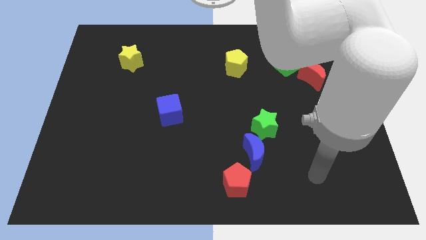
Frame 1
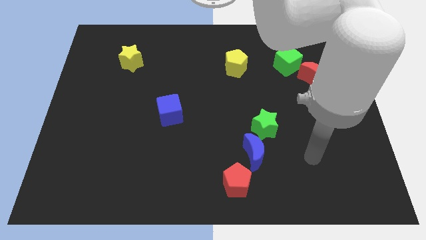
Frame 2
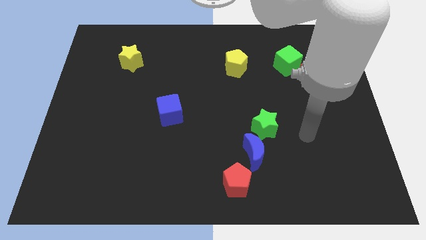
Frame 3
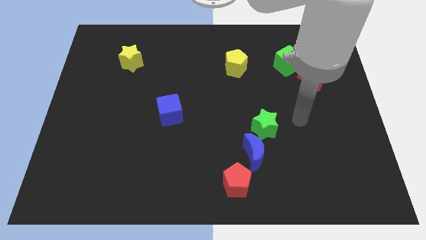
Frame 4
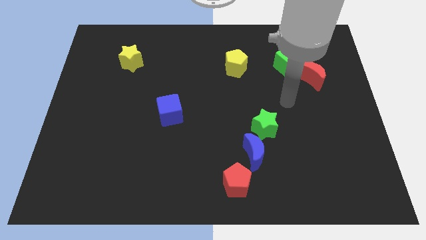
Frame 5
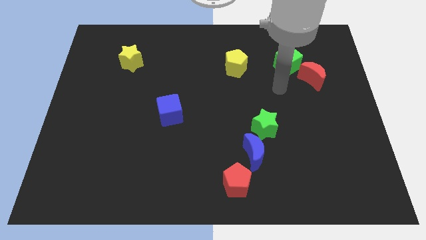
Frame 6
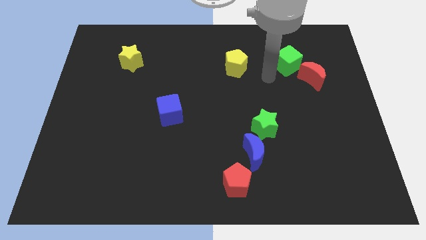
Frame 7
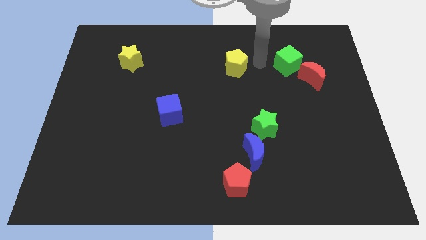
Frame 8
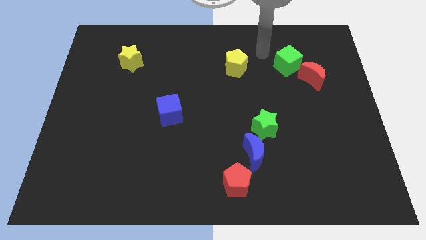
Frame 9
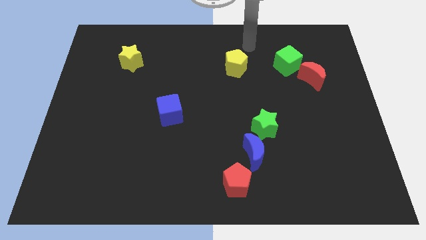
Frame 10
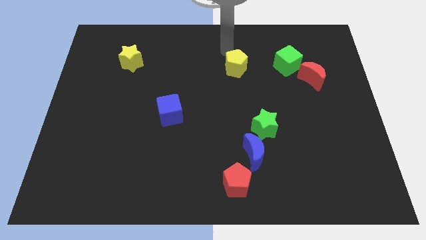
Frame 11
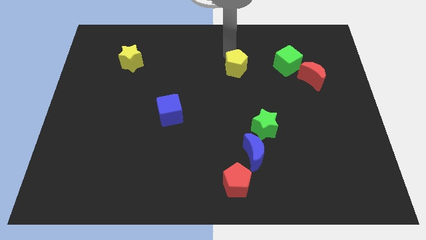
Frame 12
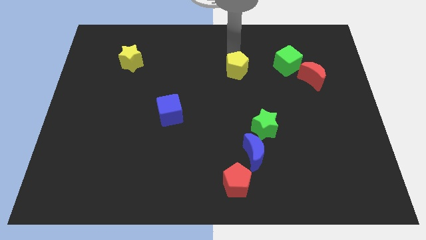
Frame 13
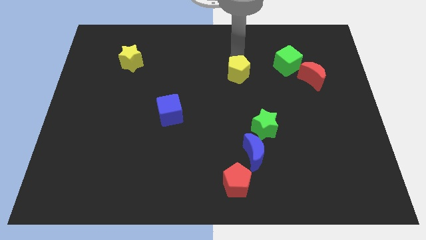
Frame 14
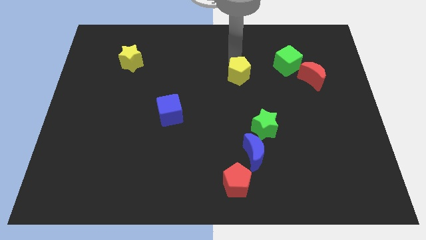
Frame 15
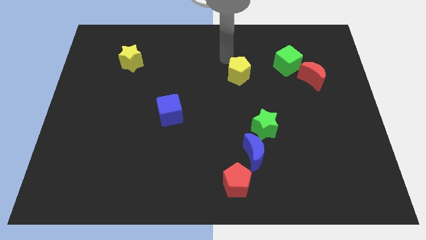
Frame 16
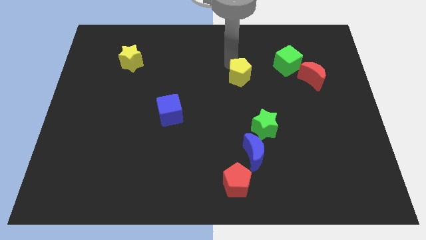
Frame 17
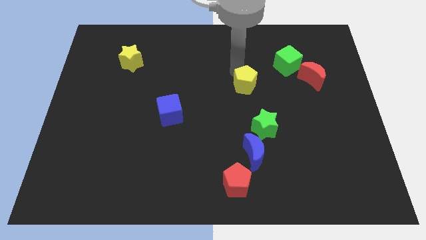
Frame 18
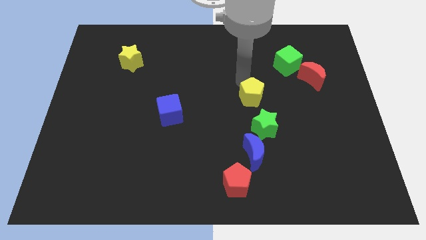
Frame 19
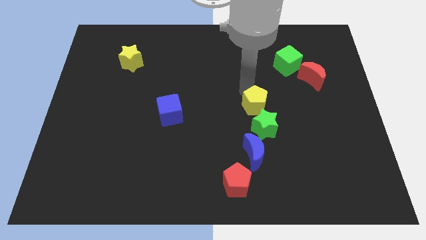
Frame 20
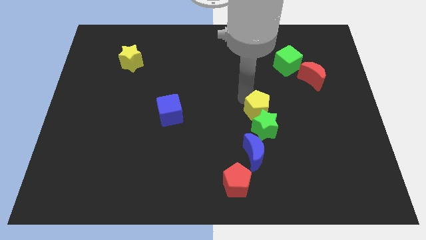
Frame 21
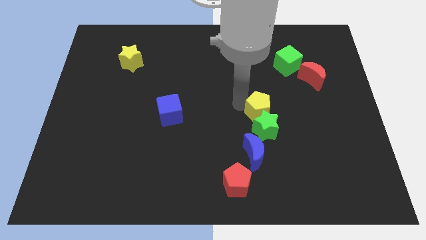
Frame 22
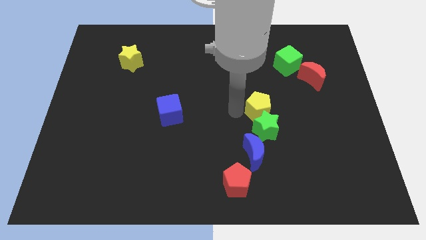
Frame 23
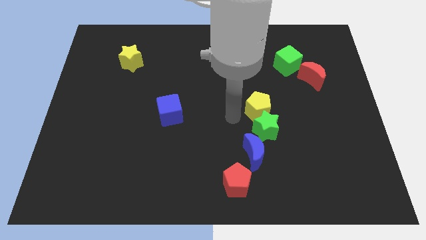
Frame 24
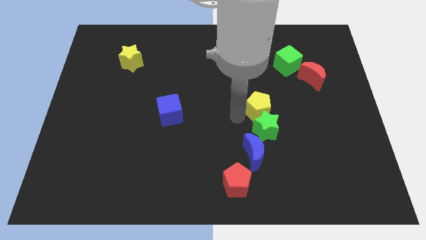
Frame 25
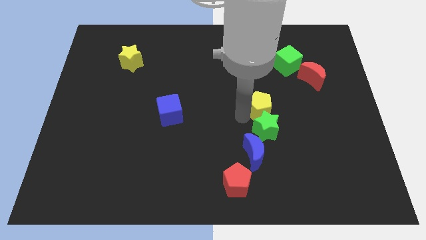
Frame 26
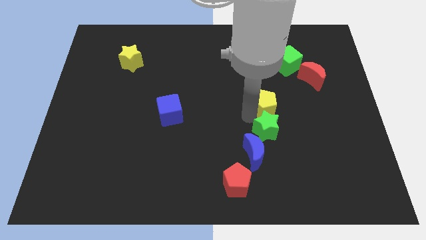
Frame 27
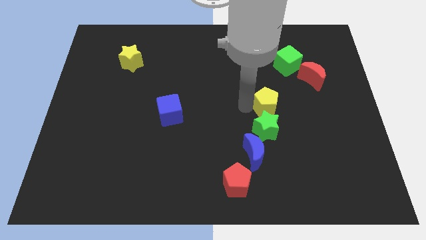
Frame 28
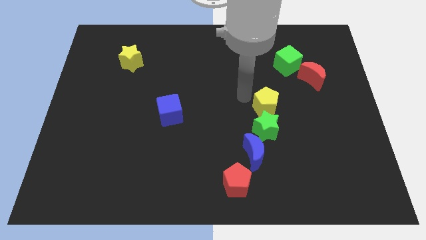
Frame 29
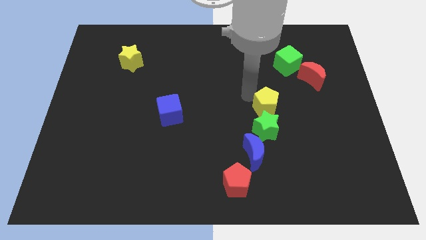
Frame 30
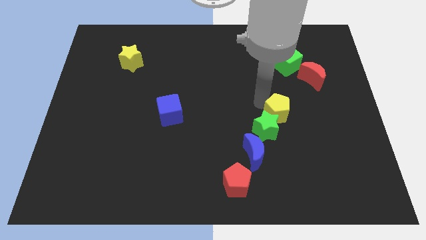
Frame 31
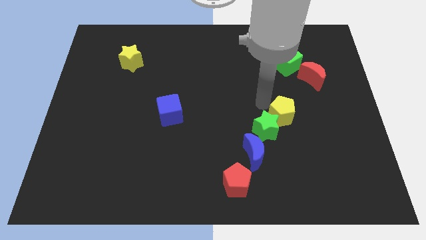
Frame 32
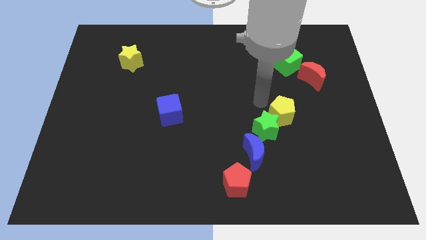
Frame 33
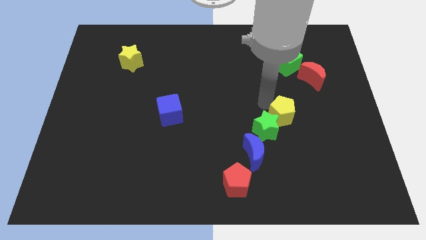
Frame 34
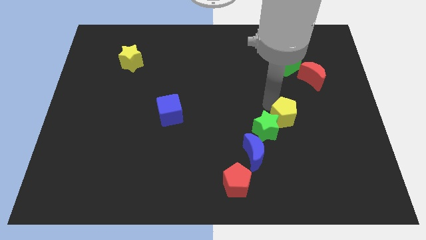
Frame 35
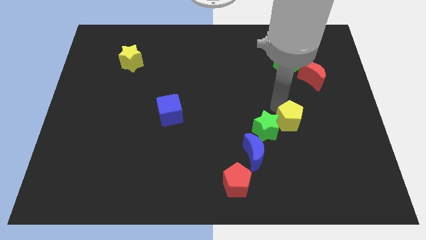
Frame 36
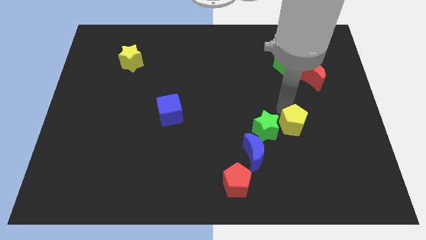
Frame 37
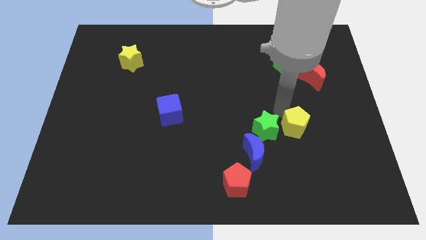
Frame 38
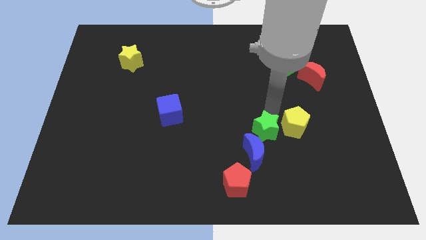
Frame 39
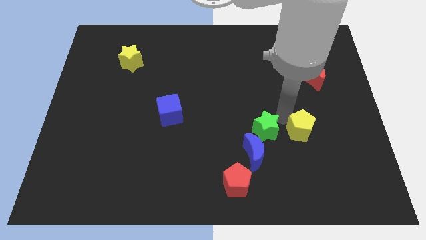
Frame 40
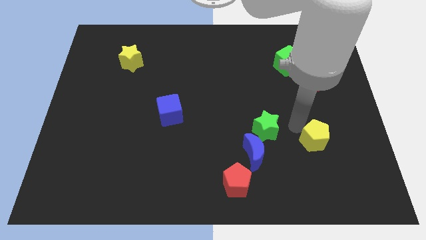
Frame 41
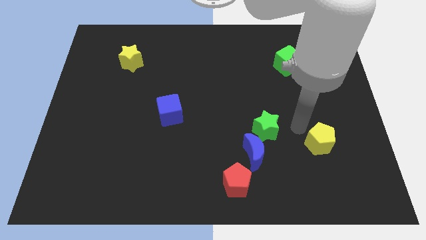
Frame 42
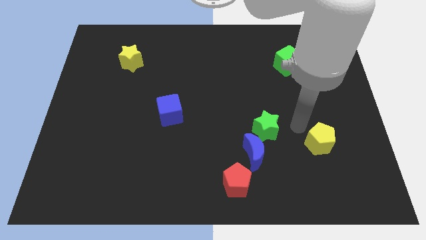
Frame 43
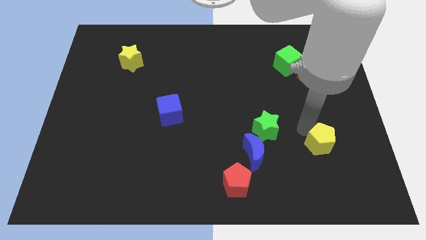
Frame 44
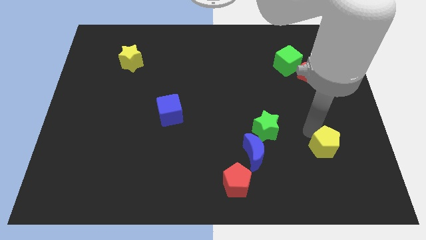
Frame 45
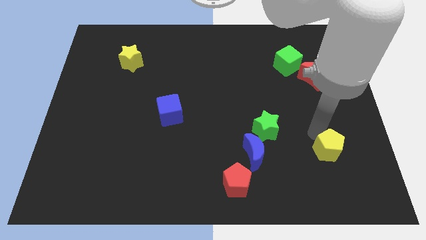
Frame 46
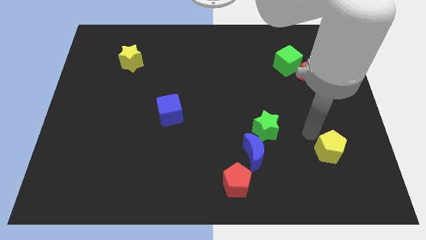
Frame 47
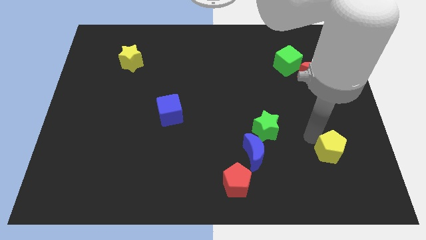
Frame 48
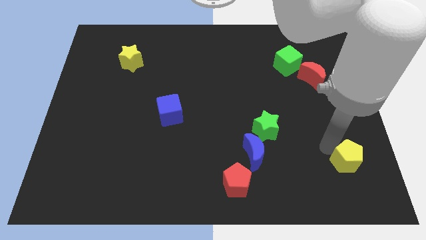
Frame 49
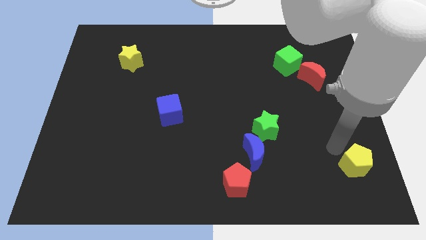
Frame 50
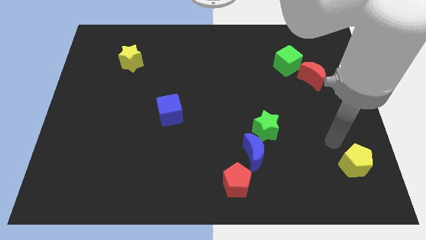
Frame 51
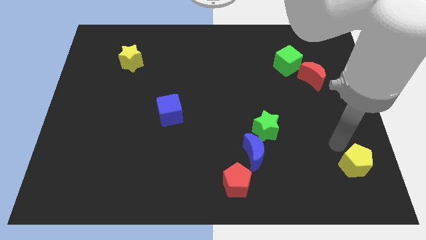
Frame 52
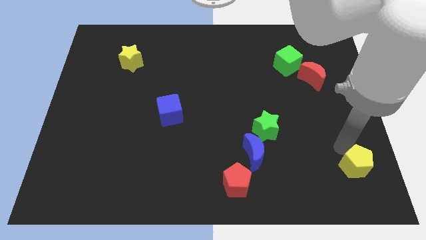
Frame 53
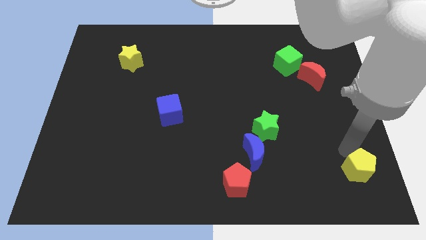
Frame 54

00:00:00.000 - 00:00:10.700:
slide the yellow pentagon to the lower right corner

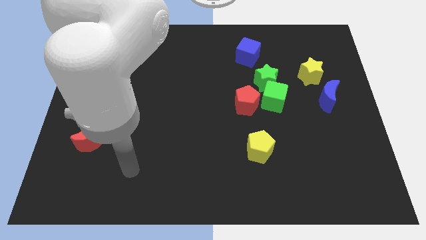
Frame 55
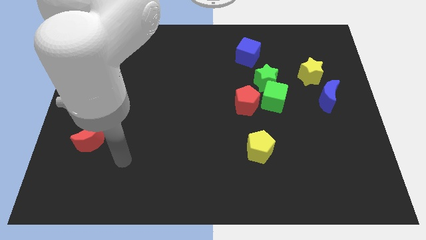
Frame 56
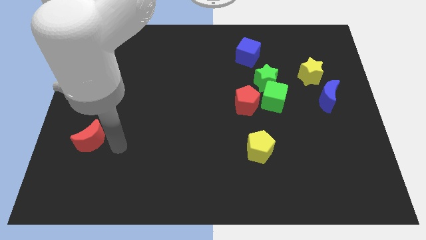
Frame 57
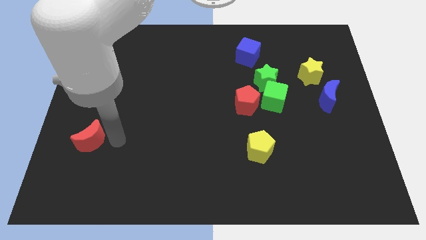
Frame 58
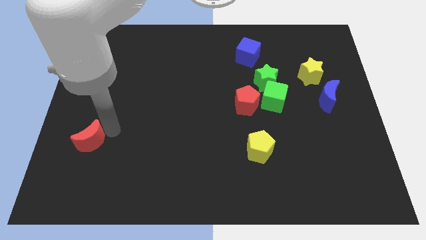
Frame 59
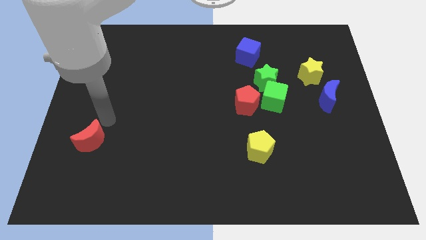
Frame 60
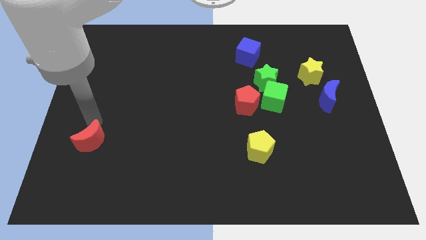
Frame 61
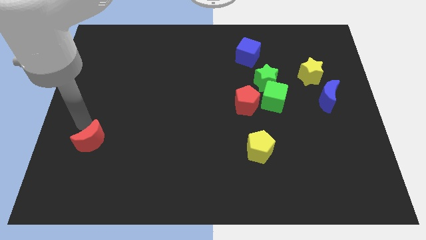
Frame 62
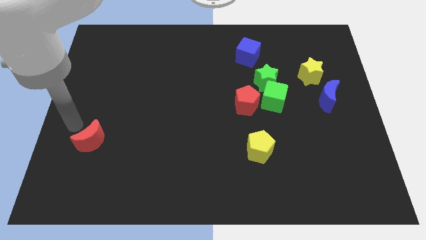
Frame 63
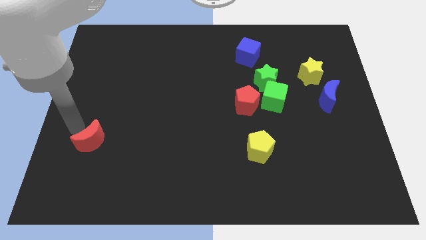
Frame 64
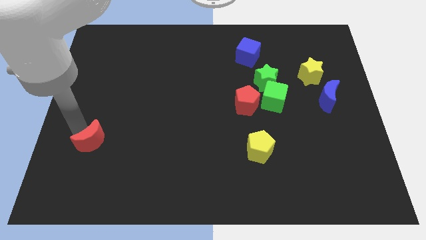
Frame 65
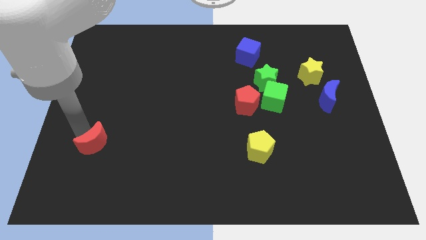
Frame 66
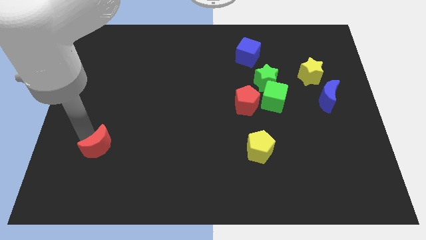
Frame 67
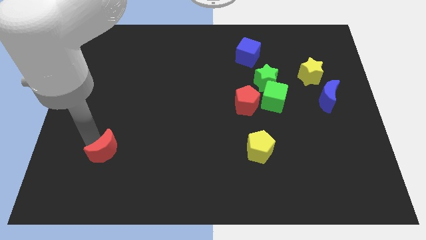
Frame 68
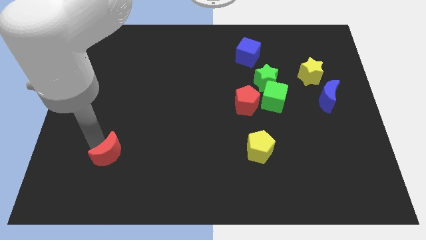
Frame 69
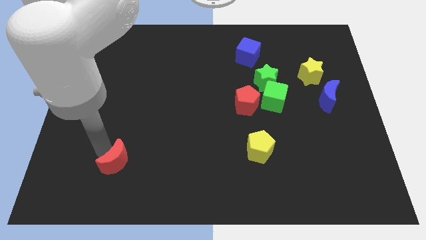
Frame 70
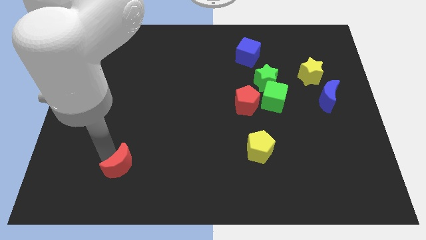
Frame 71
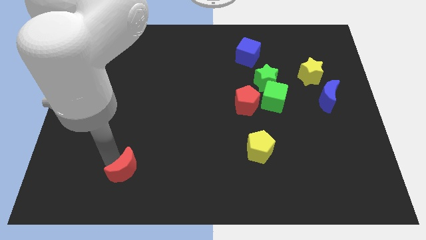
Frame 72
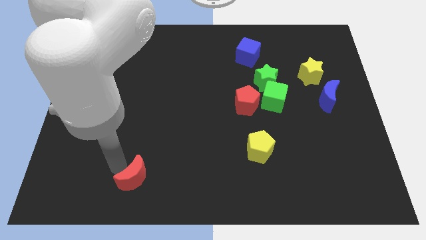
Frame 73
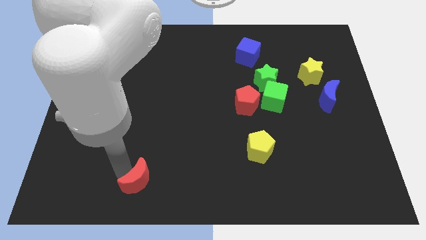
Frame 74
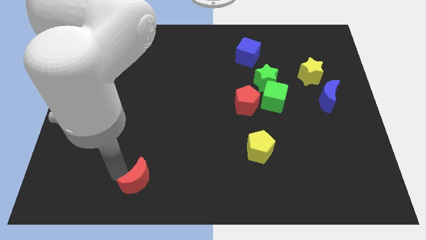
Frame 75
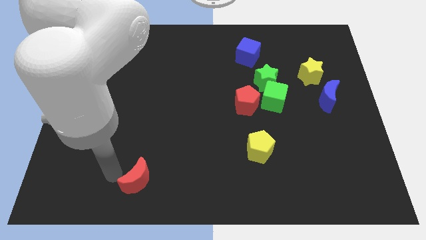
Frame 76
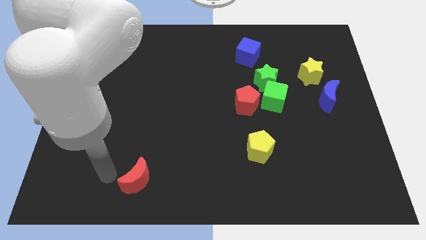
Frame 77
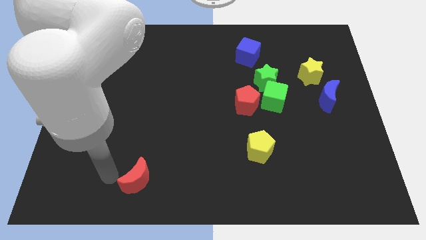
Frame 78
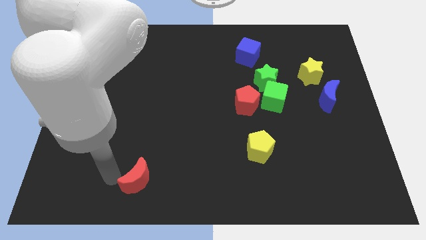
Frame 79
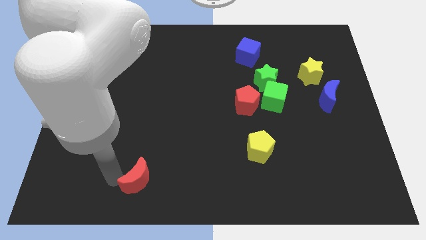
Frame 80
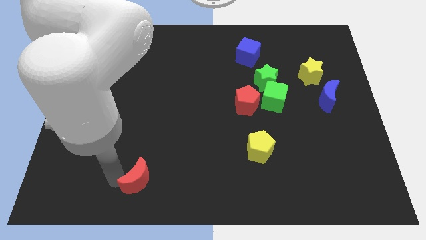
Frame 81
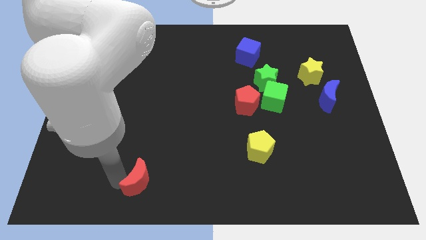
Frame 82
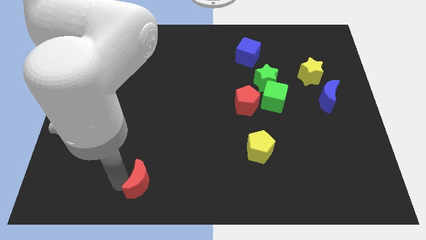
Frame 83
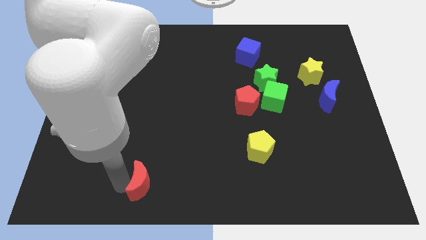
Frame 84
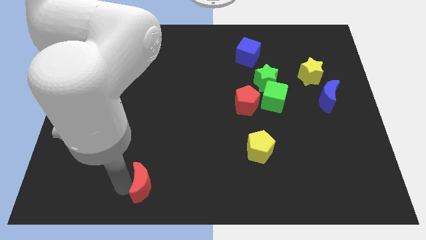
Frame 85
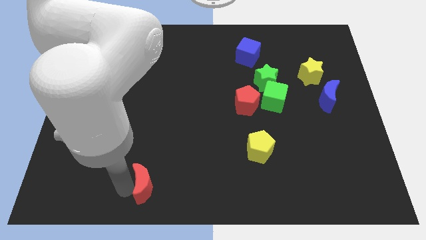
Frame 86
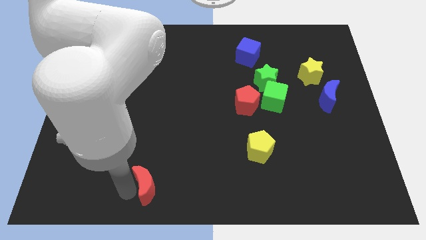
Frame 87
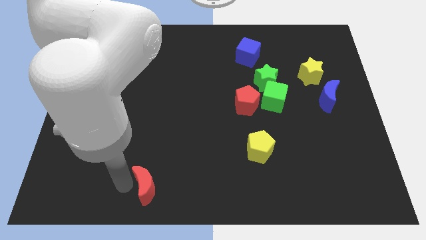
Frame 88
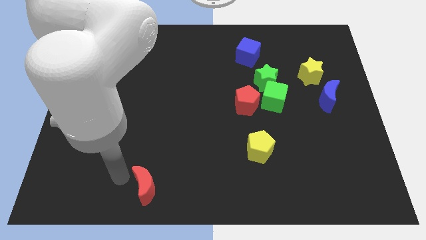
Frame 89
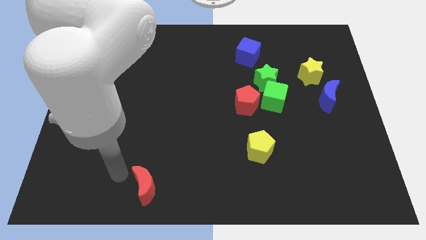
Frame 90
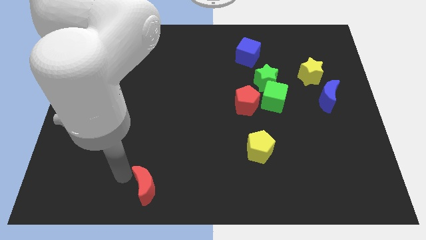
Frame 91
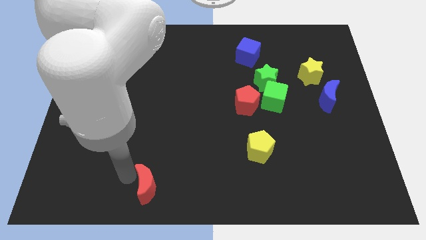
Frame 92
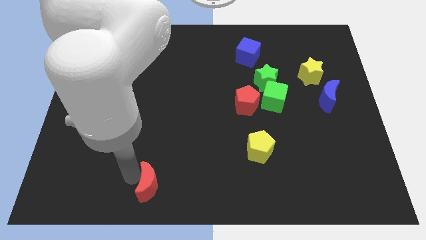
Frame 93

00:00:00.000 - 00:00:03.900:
push the red moon to the bottom
